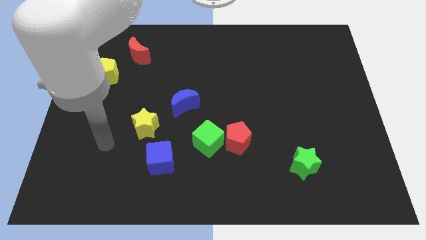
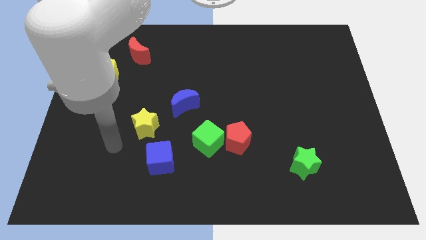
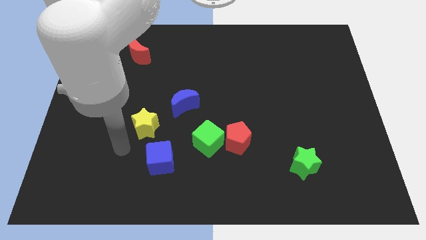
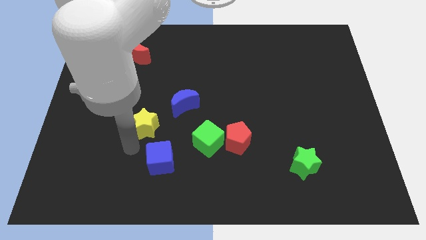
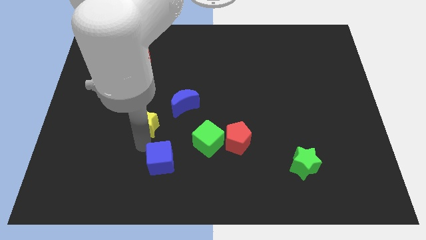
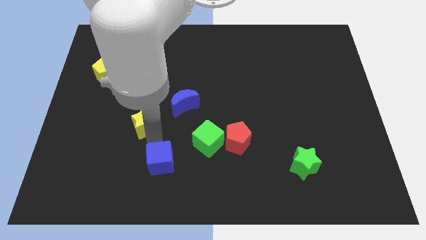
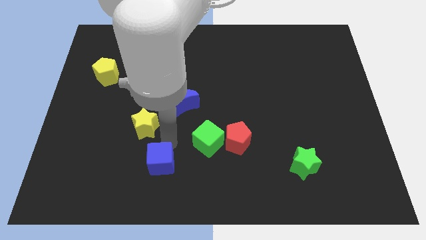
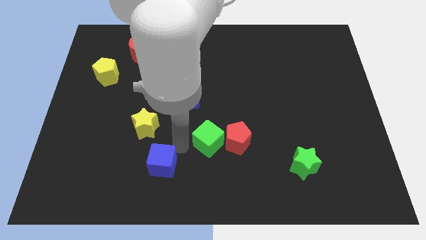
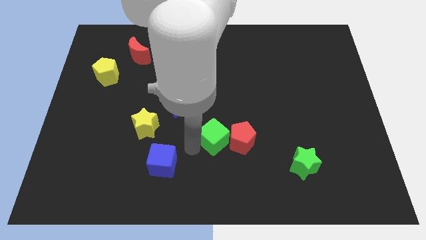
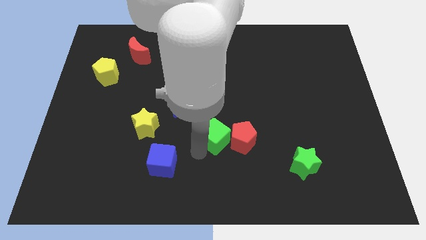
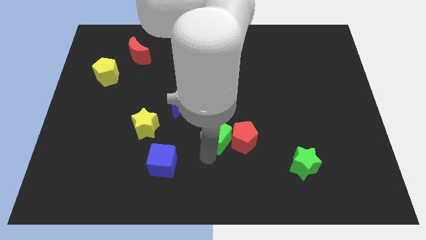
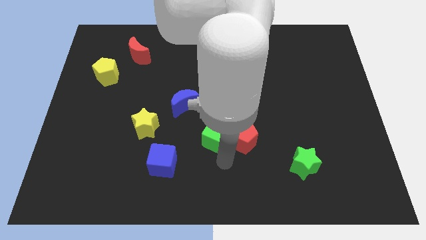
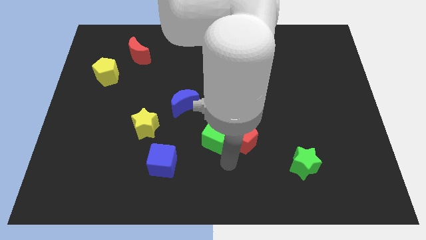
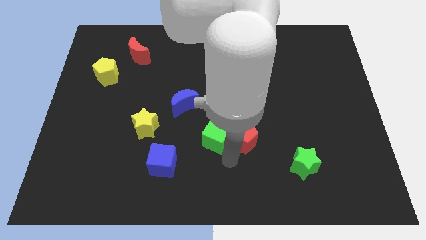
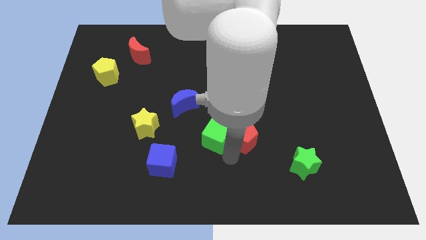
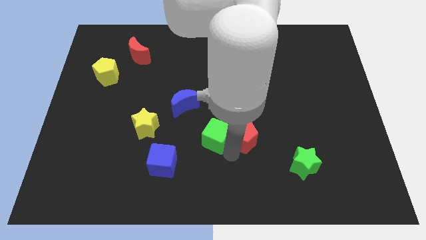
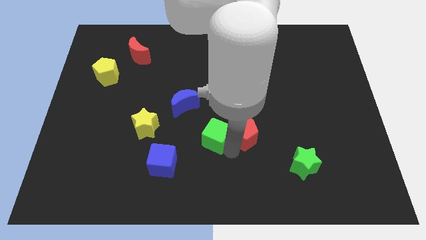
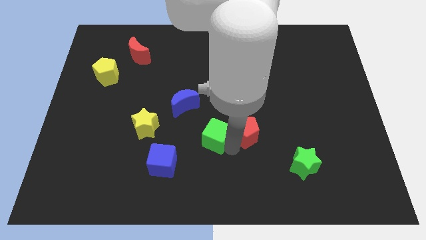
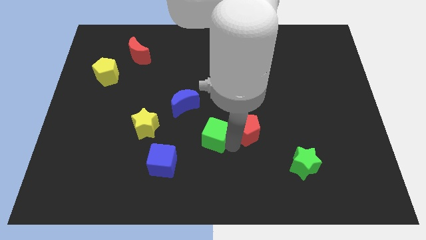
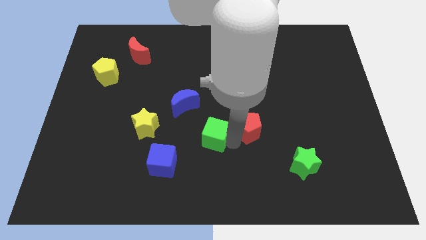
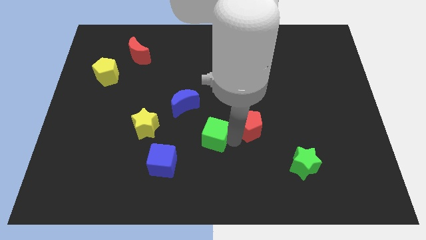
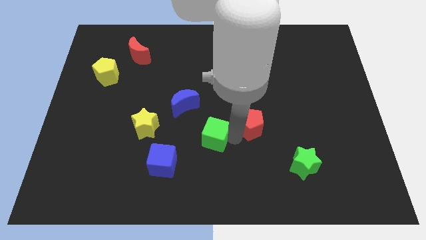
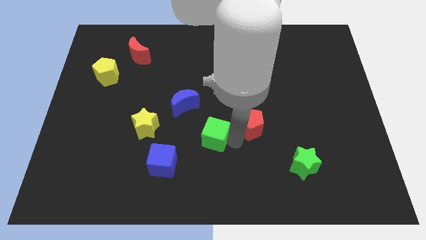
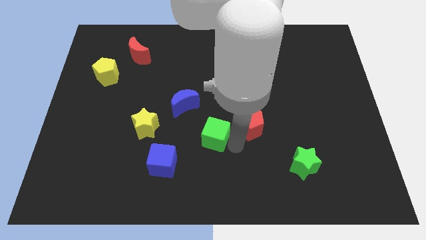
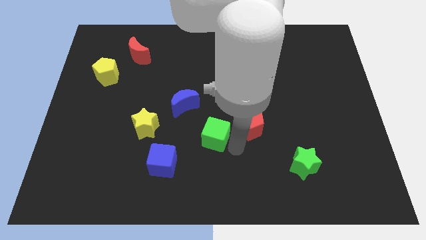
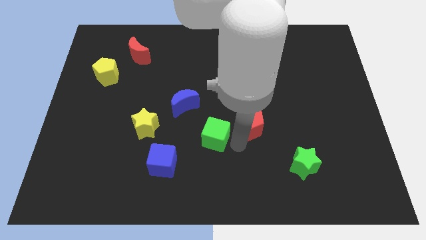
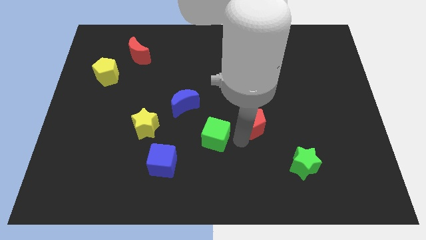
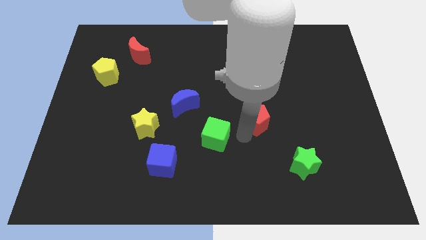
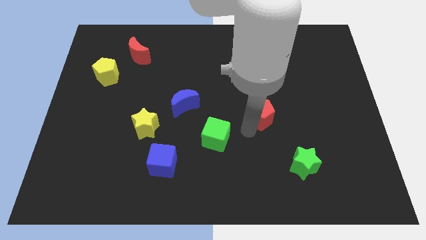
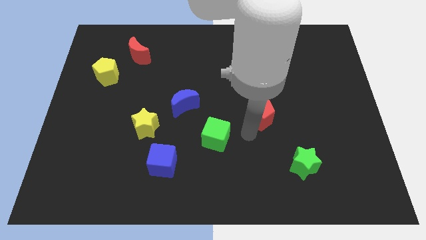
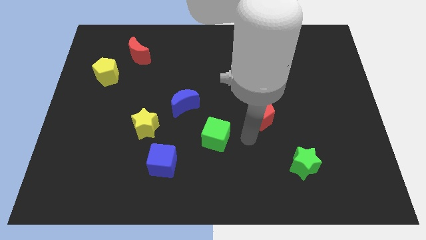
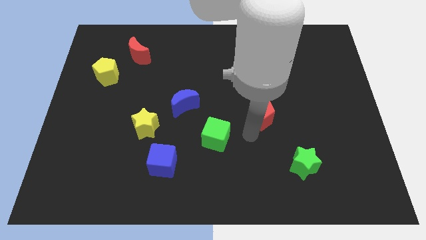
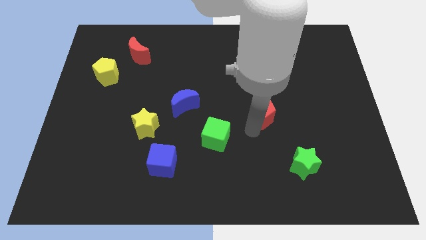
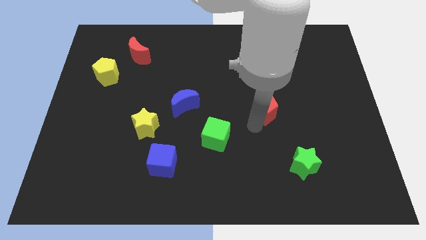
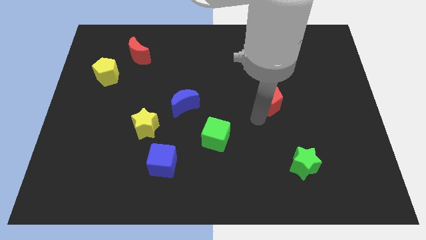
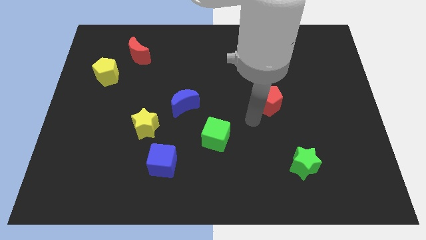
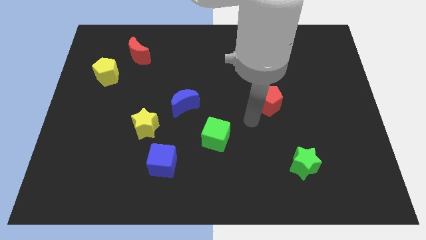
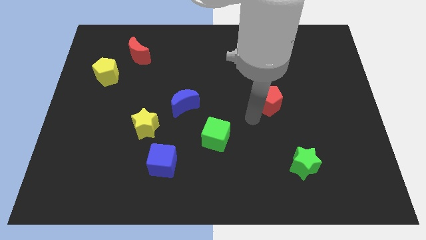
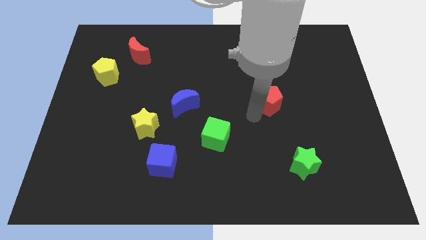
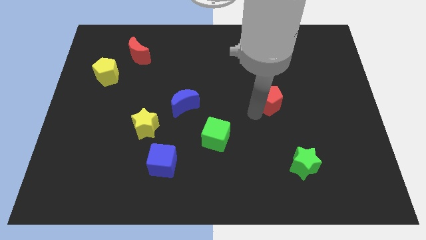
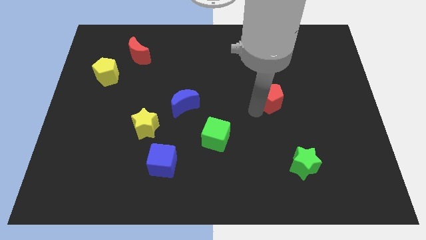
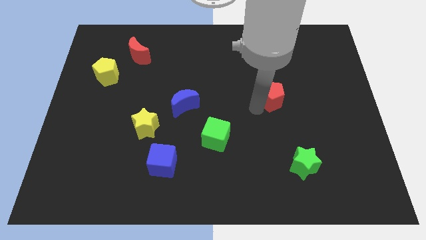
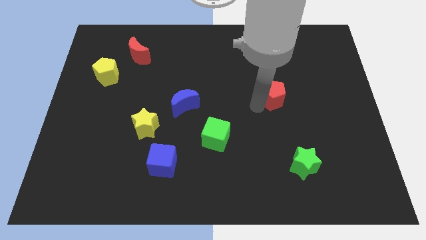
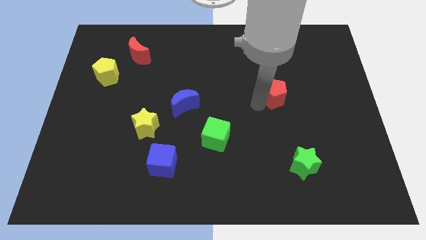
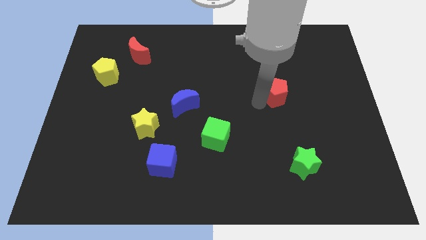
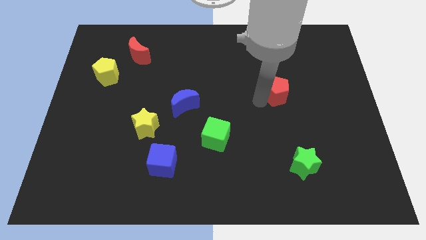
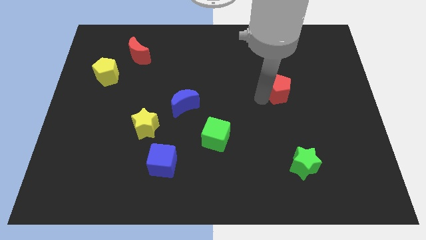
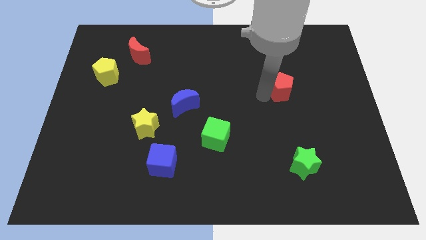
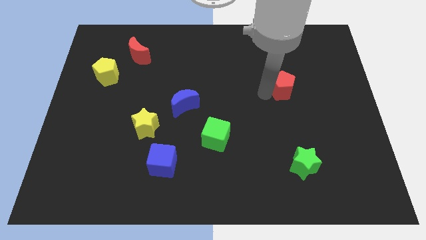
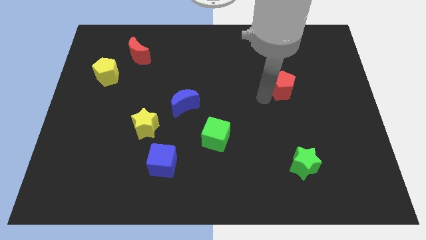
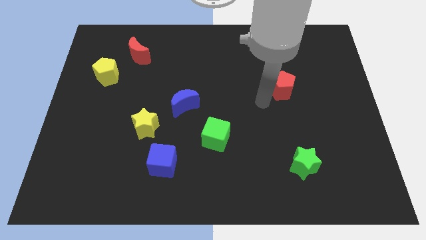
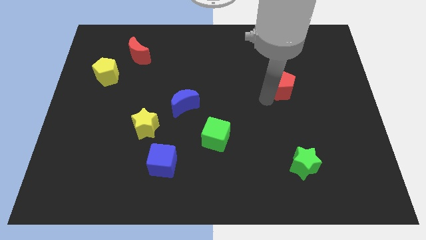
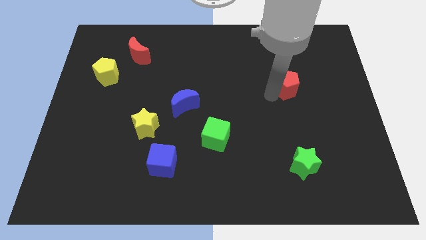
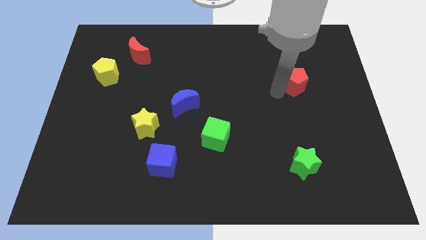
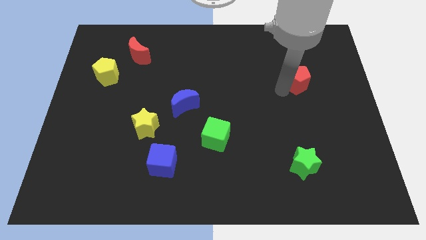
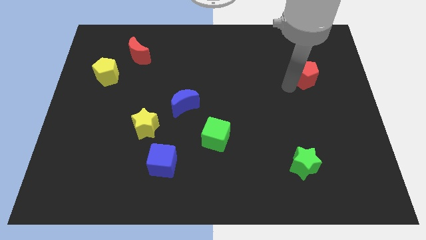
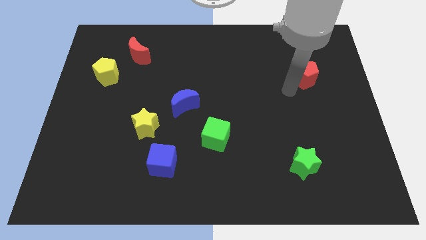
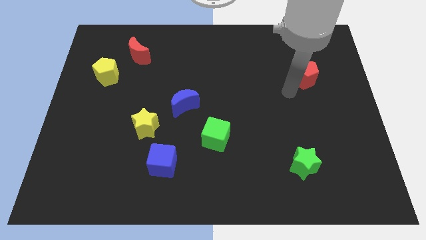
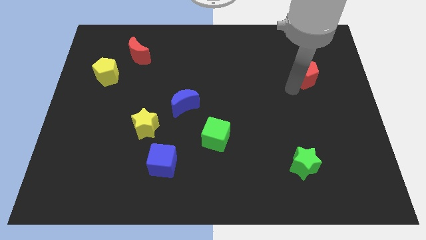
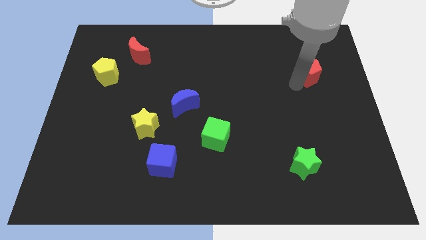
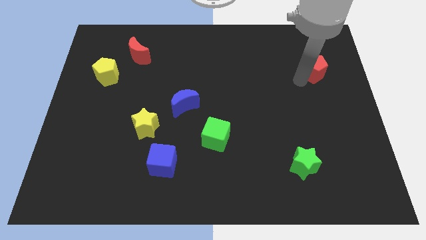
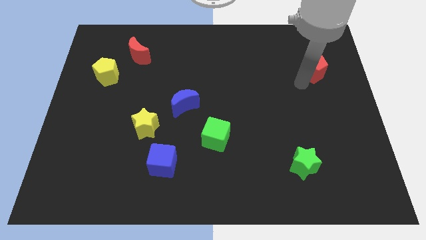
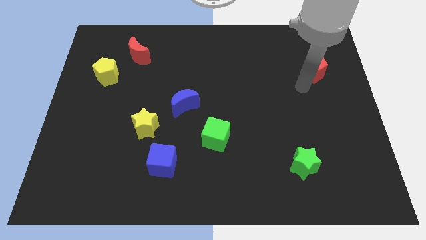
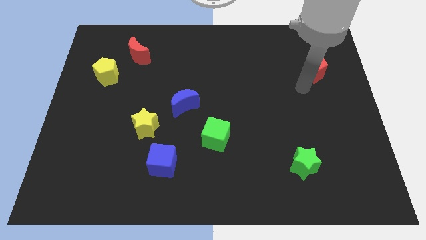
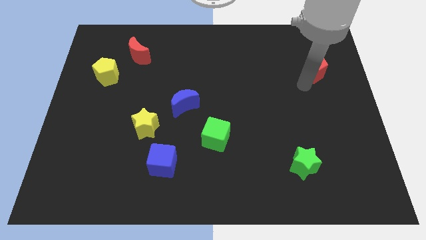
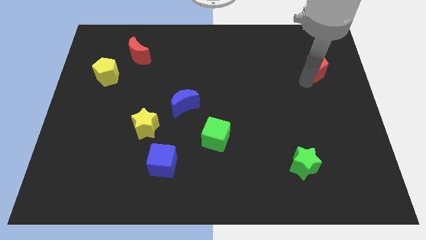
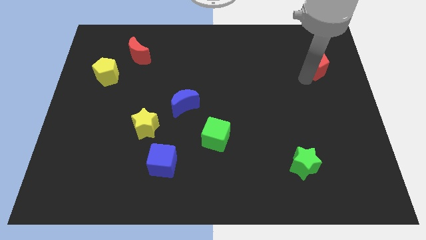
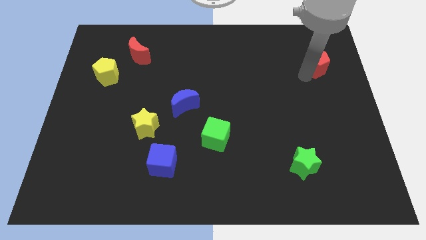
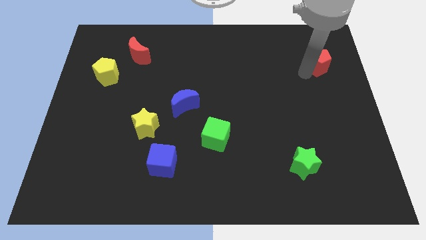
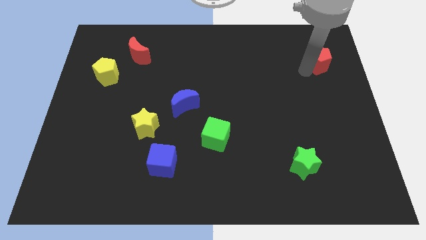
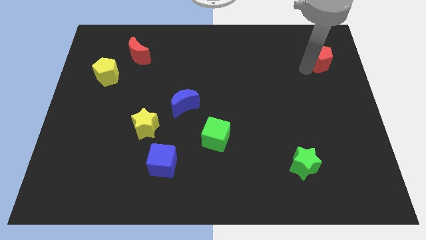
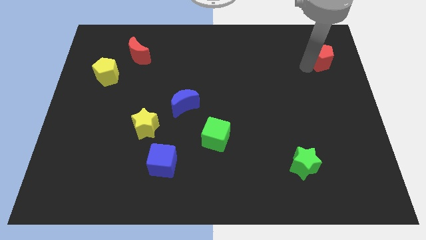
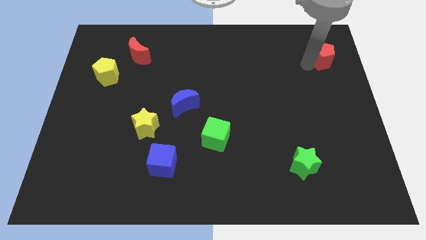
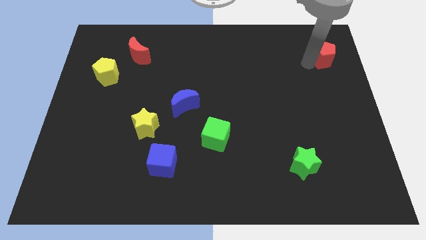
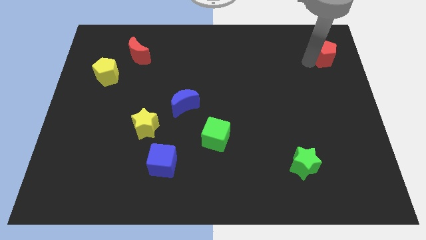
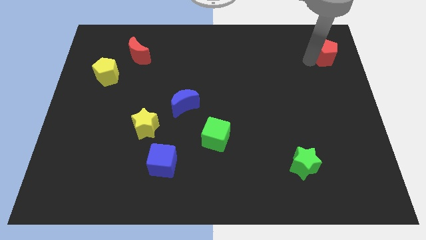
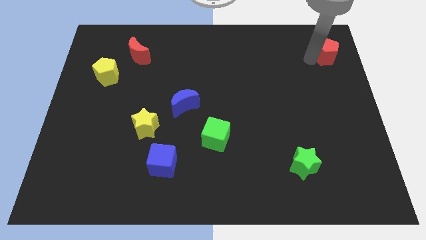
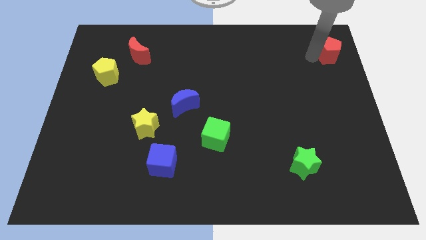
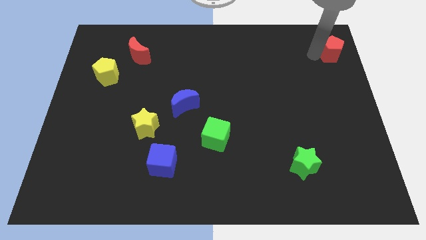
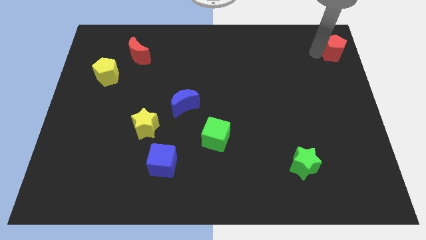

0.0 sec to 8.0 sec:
move the red pentagon to the top right of the board
